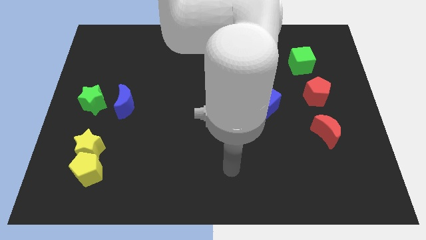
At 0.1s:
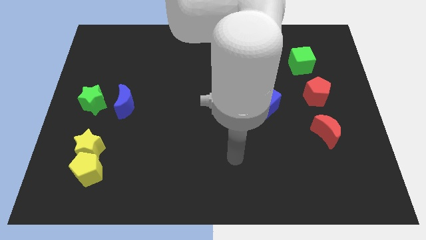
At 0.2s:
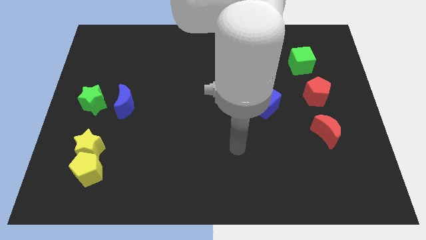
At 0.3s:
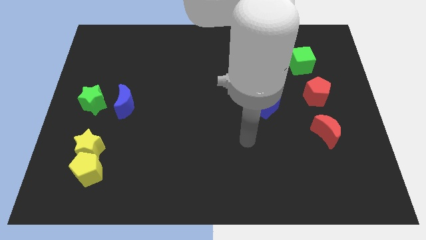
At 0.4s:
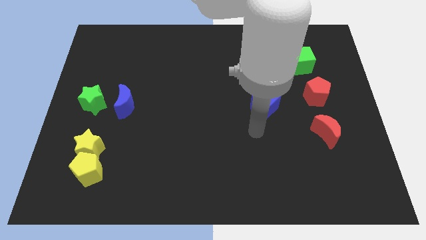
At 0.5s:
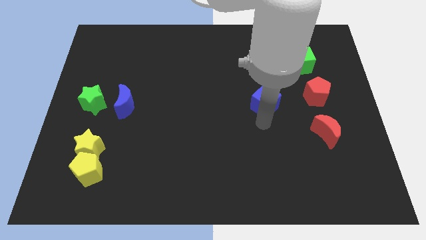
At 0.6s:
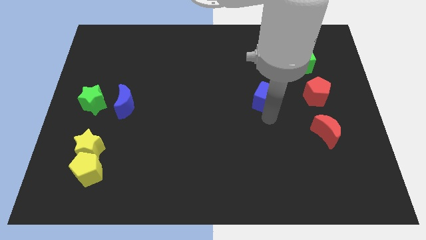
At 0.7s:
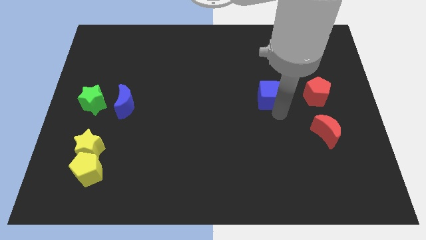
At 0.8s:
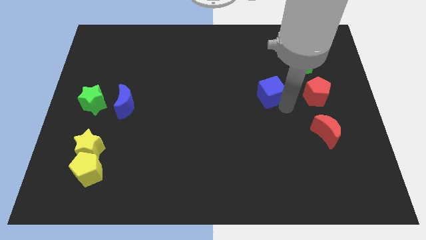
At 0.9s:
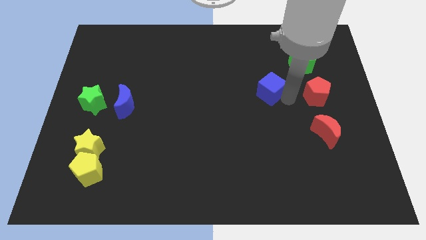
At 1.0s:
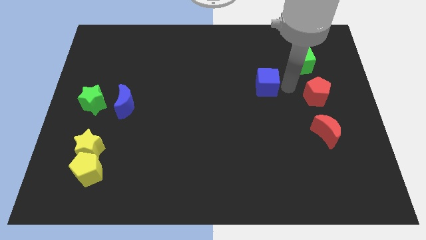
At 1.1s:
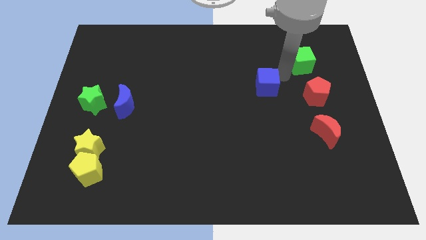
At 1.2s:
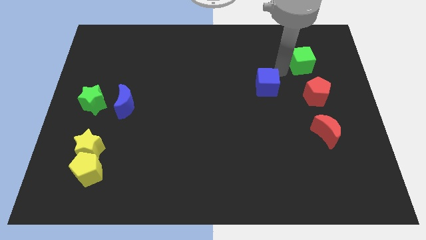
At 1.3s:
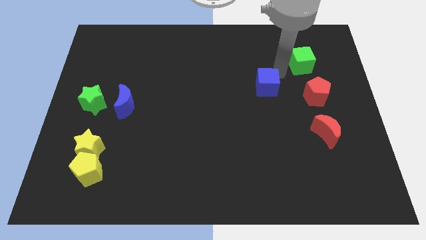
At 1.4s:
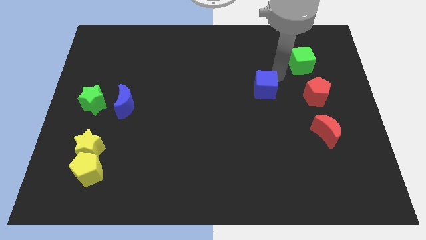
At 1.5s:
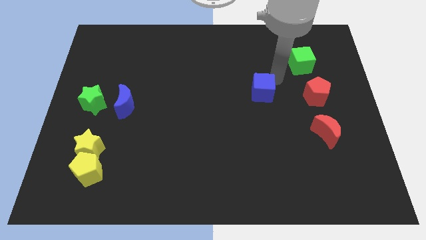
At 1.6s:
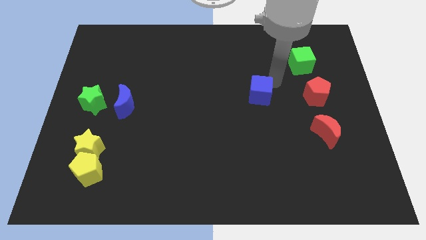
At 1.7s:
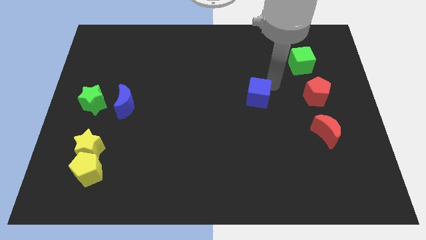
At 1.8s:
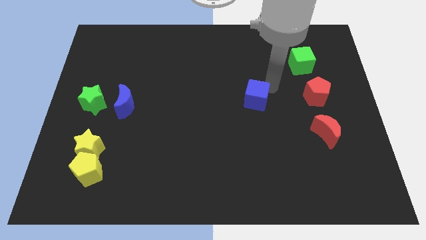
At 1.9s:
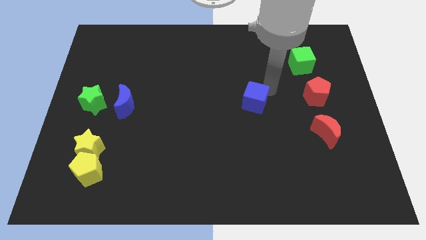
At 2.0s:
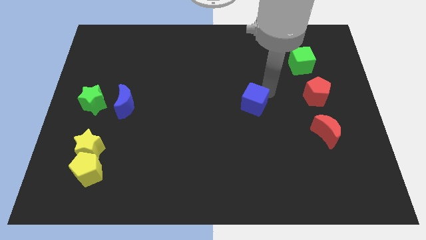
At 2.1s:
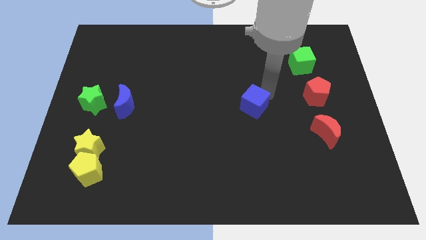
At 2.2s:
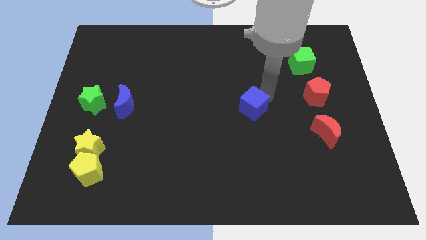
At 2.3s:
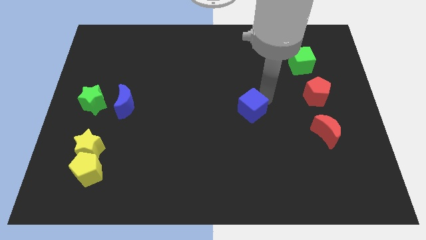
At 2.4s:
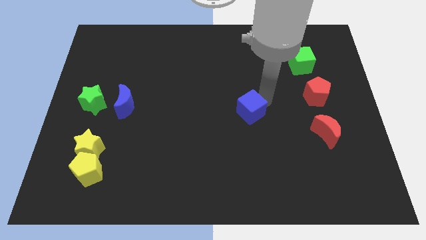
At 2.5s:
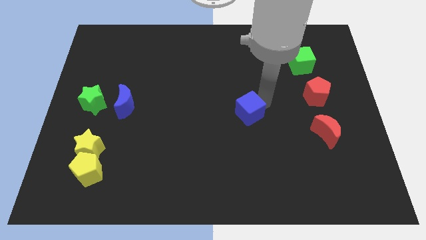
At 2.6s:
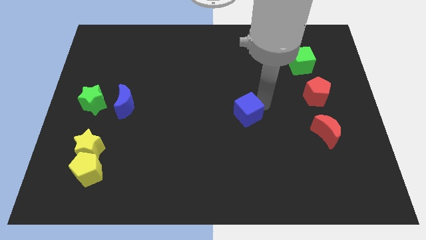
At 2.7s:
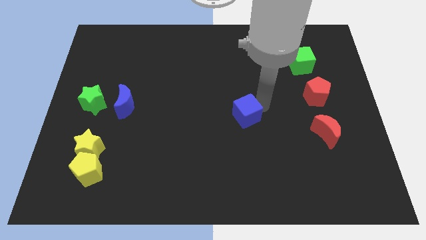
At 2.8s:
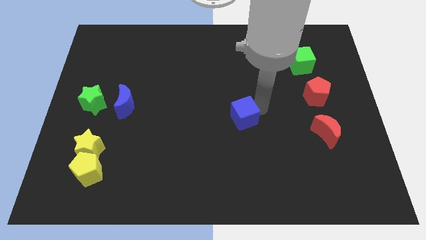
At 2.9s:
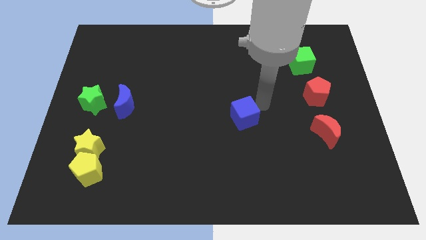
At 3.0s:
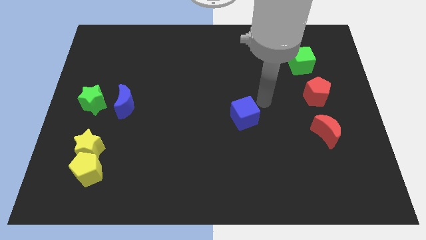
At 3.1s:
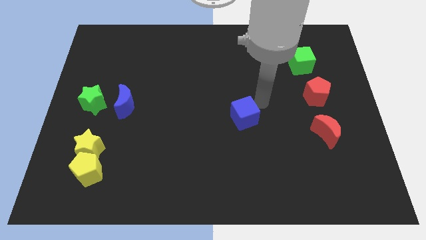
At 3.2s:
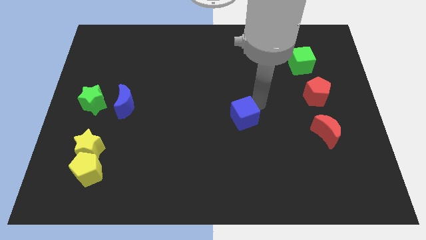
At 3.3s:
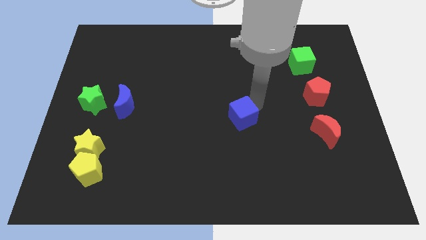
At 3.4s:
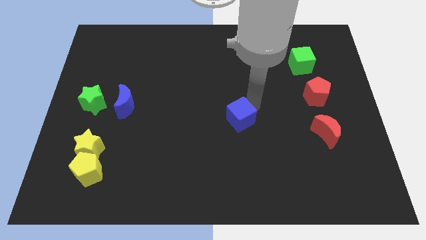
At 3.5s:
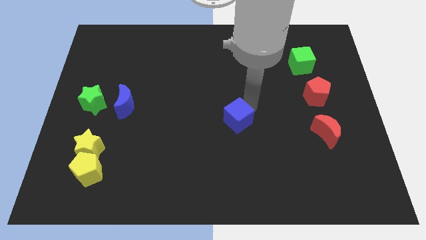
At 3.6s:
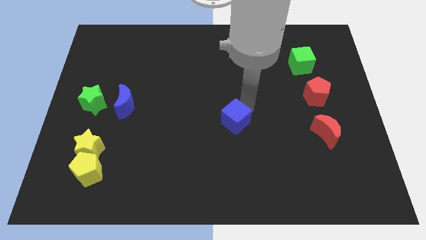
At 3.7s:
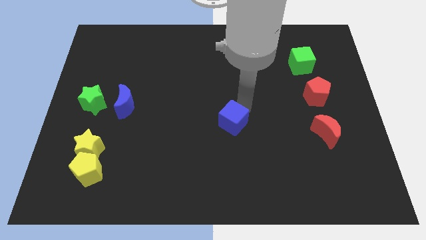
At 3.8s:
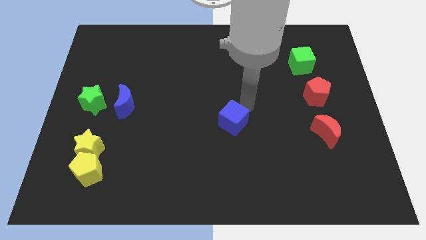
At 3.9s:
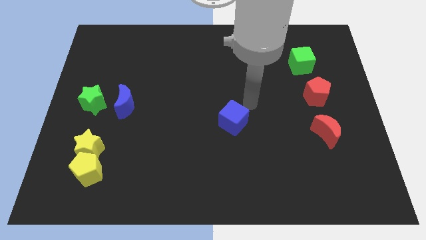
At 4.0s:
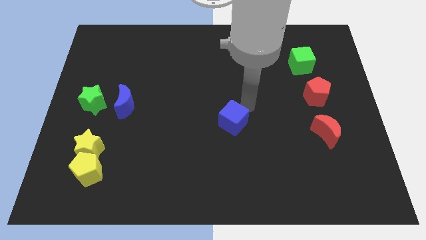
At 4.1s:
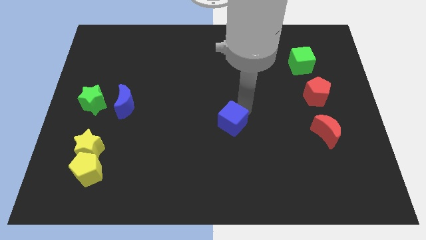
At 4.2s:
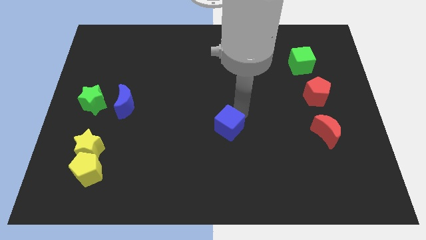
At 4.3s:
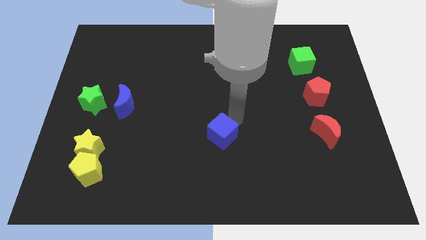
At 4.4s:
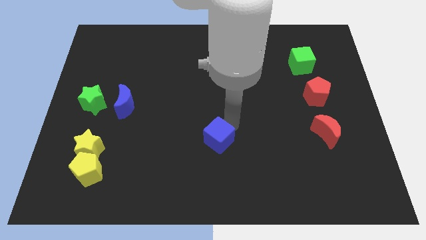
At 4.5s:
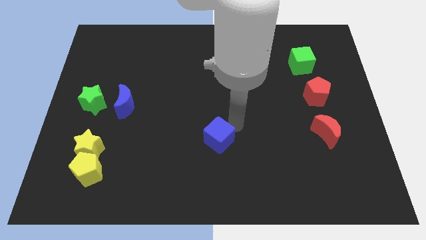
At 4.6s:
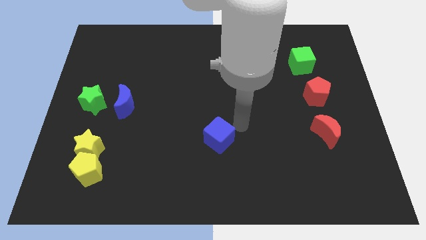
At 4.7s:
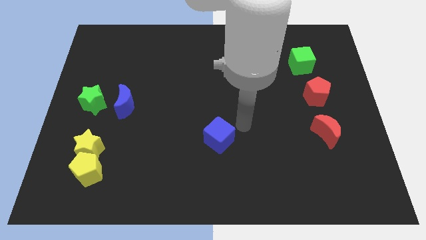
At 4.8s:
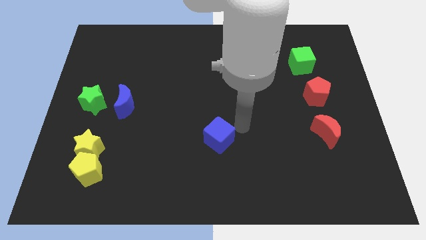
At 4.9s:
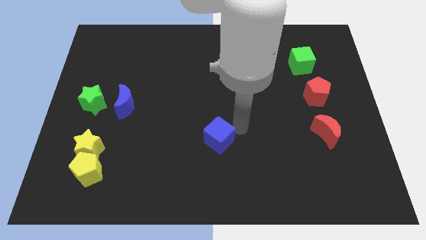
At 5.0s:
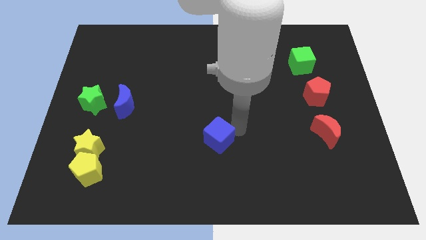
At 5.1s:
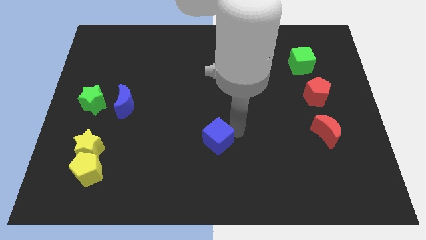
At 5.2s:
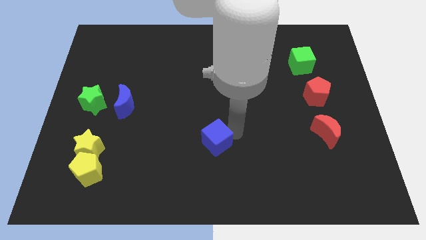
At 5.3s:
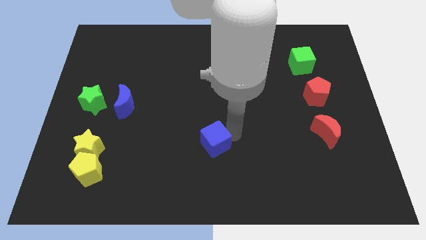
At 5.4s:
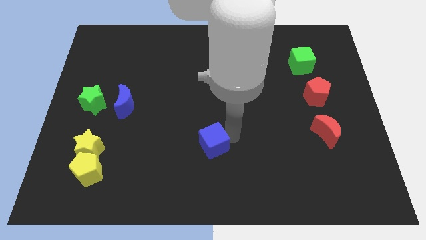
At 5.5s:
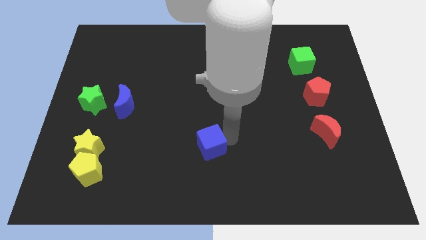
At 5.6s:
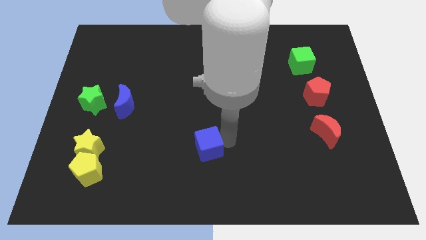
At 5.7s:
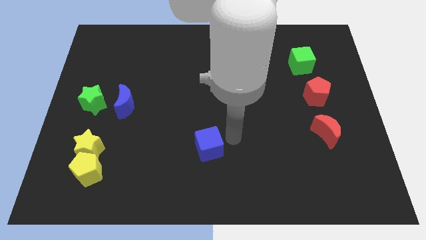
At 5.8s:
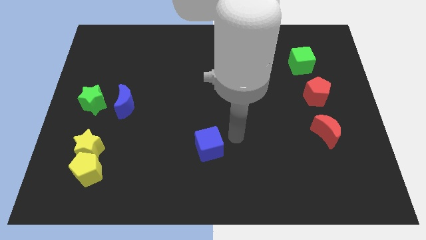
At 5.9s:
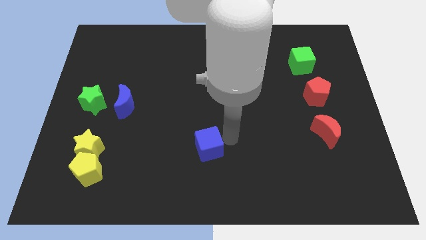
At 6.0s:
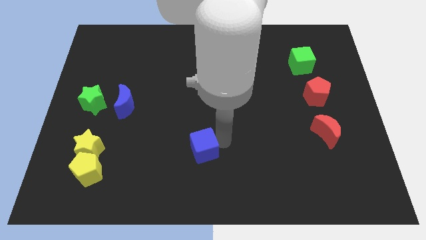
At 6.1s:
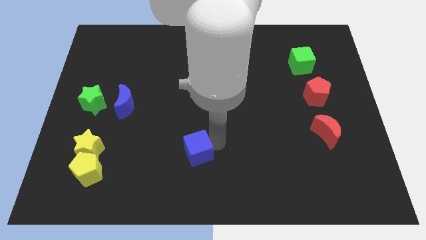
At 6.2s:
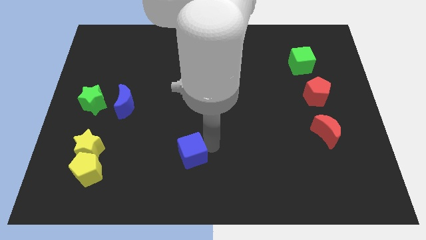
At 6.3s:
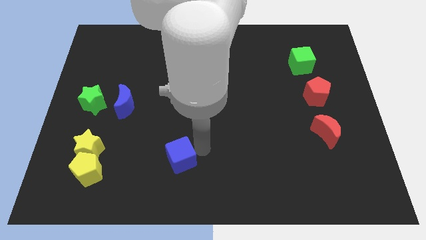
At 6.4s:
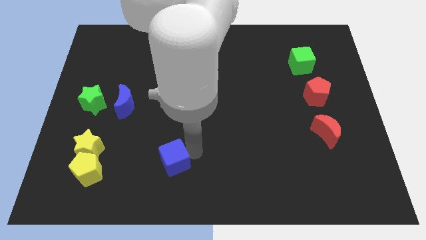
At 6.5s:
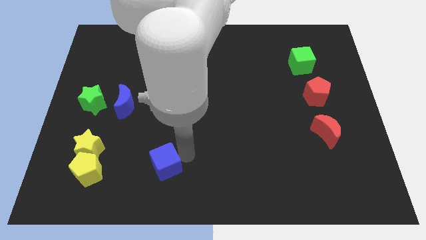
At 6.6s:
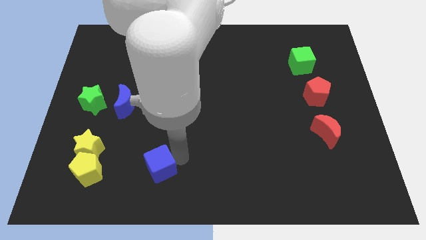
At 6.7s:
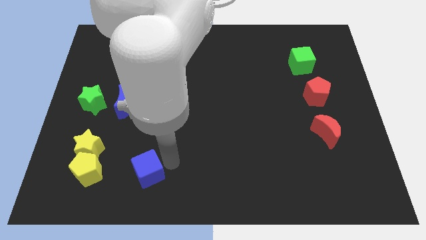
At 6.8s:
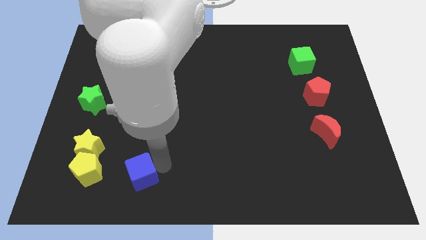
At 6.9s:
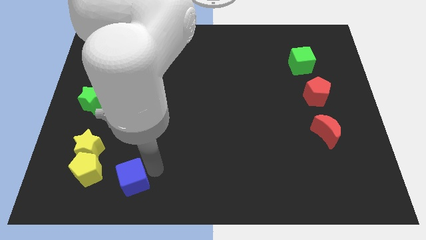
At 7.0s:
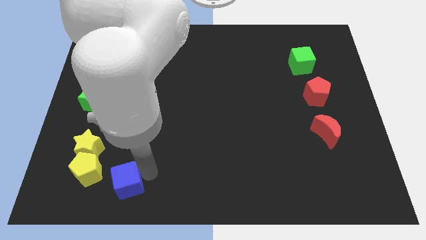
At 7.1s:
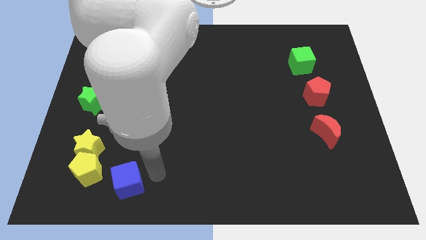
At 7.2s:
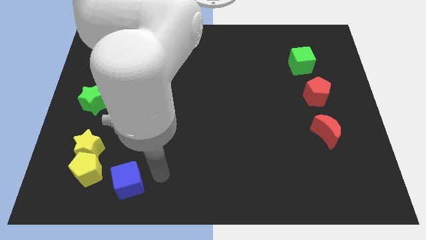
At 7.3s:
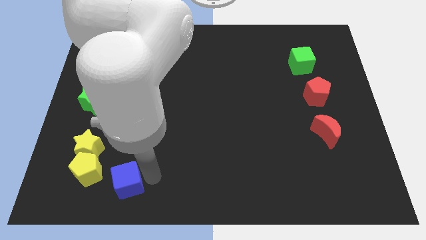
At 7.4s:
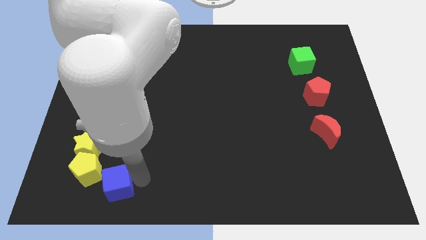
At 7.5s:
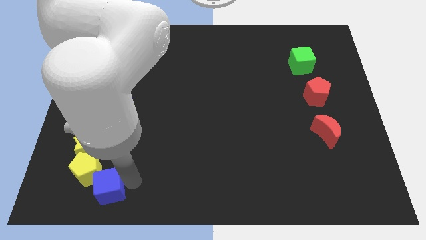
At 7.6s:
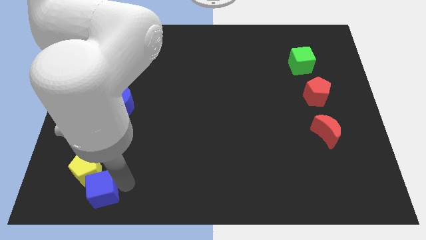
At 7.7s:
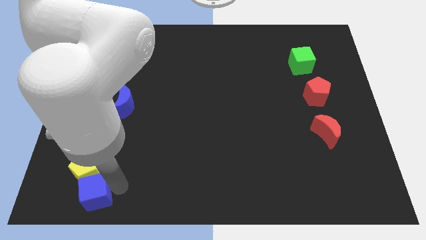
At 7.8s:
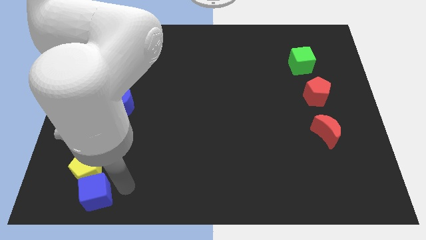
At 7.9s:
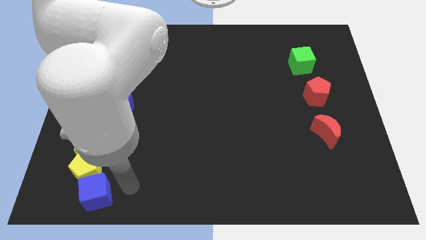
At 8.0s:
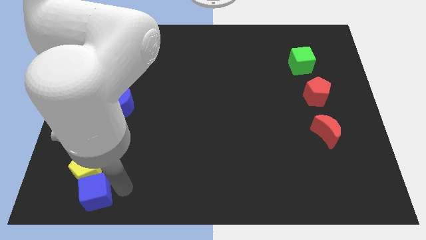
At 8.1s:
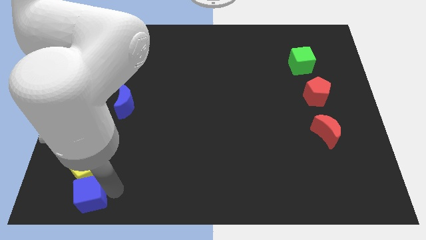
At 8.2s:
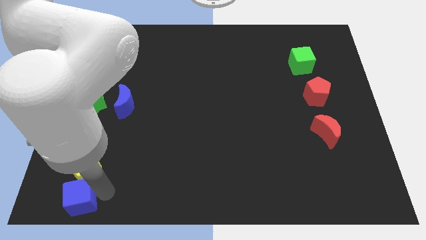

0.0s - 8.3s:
slide the blue cube to the lower left corner
